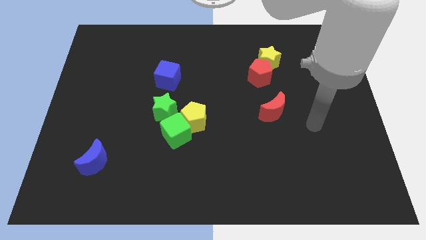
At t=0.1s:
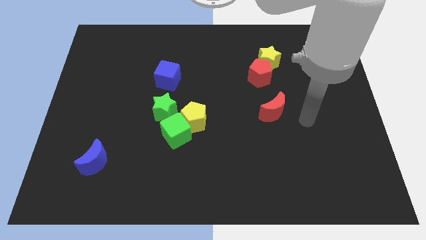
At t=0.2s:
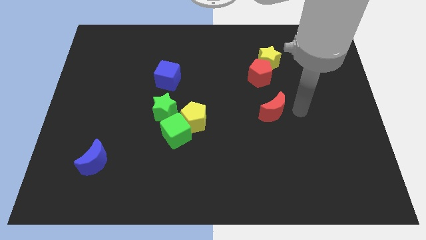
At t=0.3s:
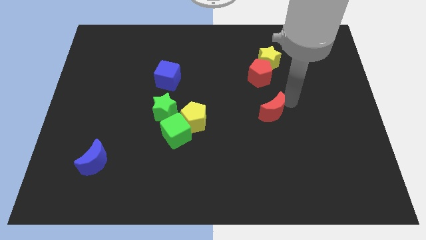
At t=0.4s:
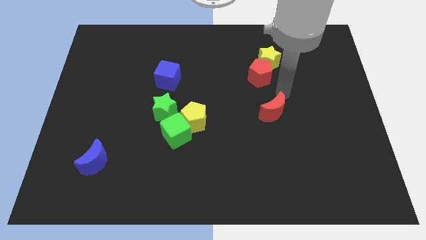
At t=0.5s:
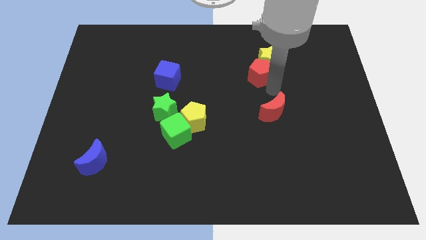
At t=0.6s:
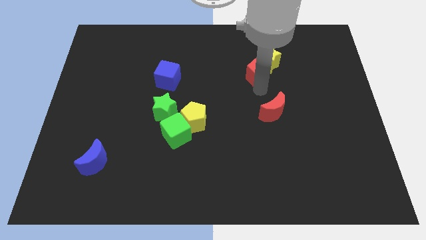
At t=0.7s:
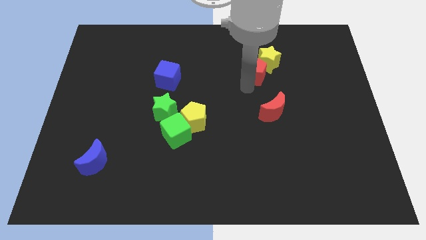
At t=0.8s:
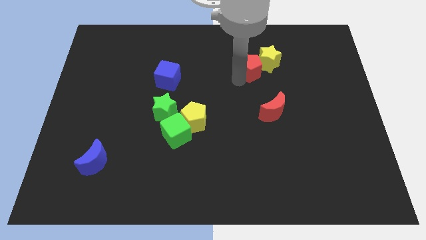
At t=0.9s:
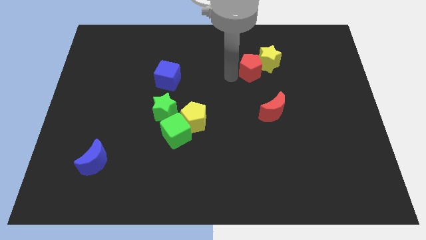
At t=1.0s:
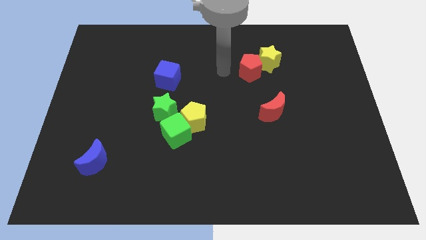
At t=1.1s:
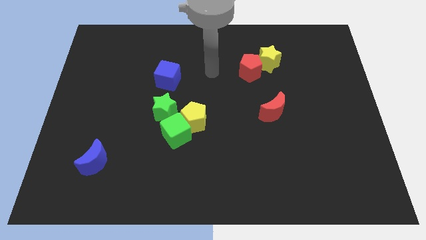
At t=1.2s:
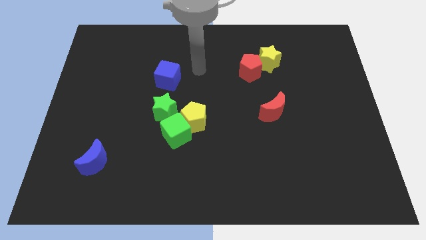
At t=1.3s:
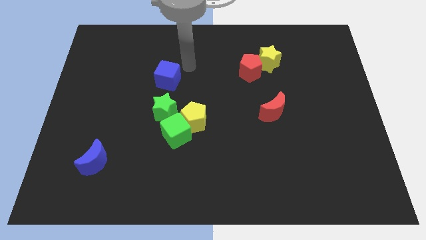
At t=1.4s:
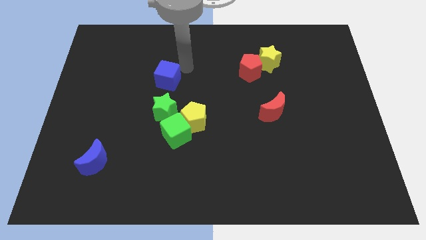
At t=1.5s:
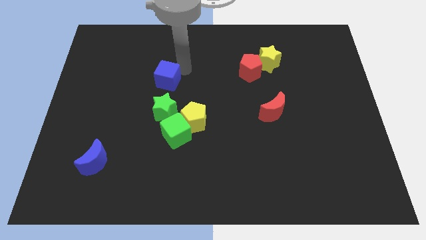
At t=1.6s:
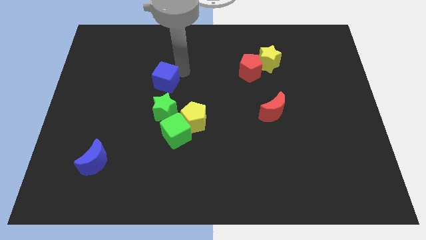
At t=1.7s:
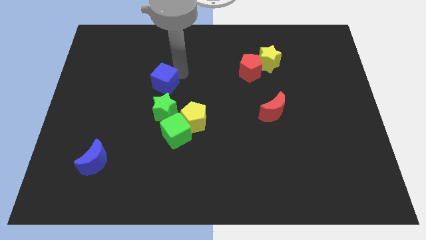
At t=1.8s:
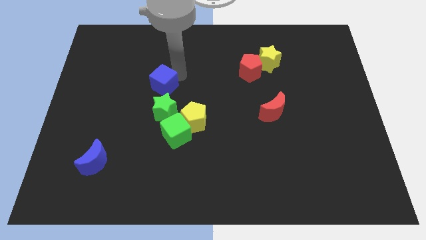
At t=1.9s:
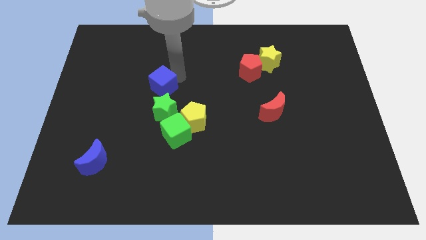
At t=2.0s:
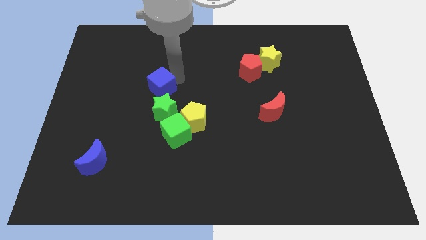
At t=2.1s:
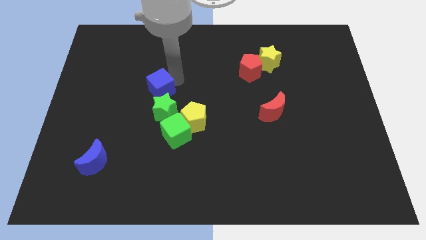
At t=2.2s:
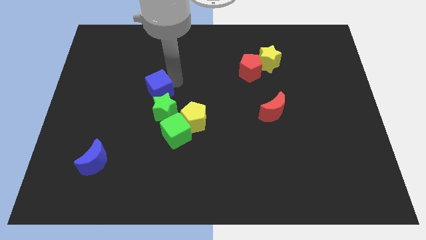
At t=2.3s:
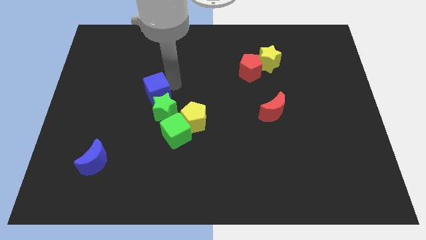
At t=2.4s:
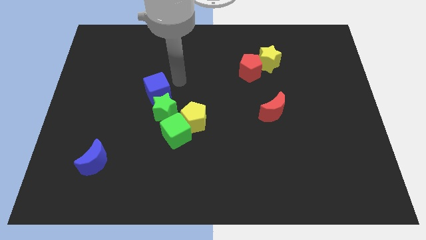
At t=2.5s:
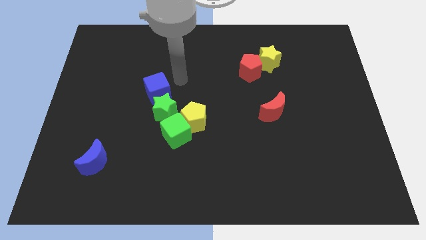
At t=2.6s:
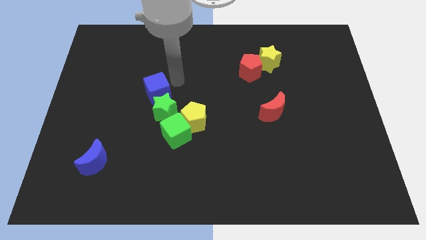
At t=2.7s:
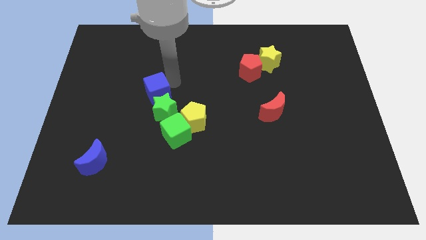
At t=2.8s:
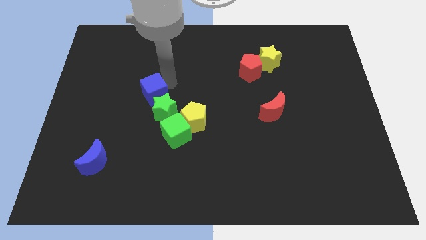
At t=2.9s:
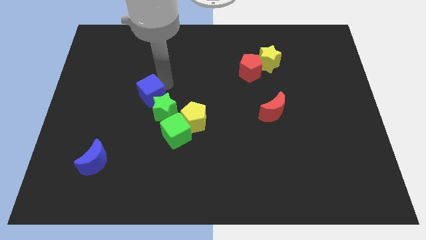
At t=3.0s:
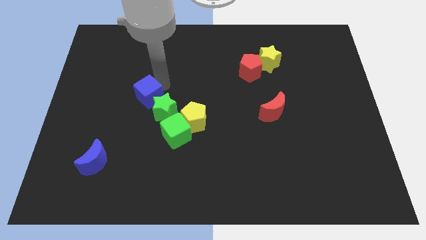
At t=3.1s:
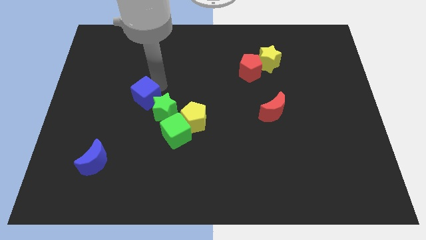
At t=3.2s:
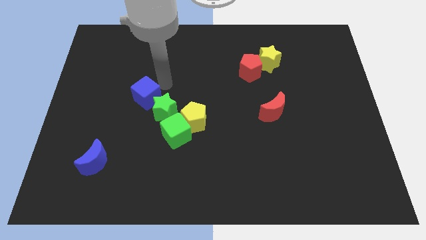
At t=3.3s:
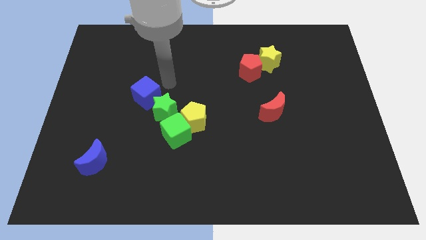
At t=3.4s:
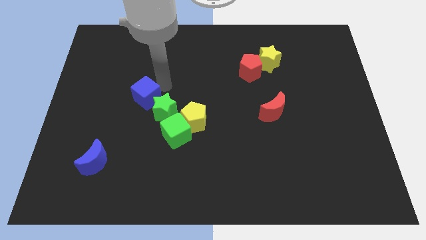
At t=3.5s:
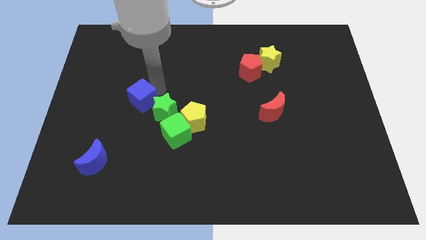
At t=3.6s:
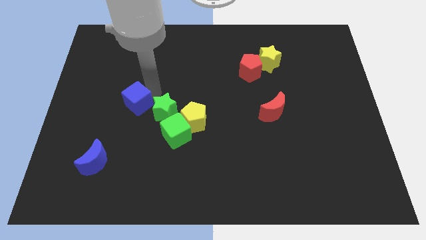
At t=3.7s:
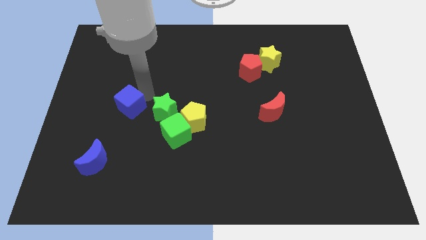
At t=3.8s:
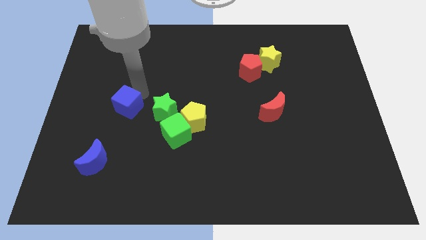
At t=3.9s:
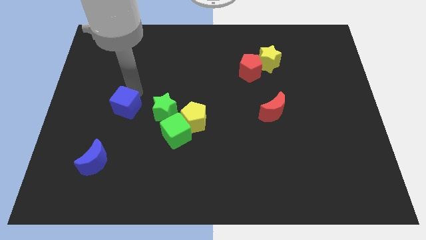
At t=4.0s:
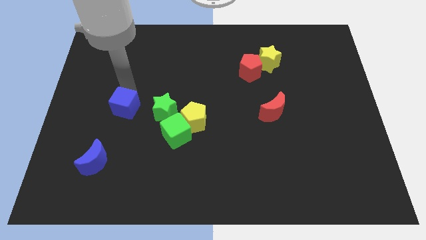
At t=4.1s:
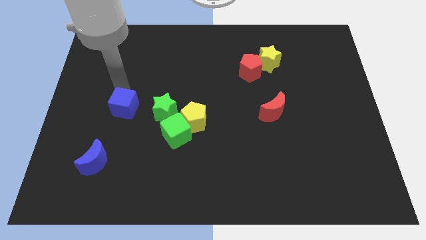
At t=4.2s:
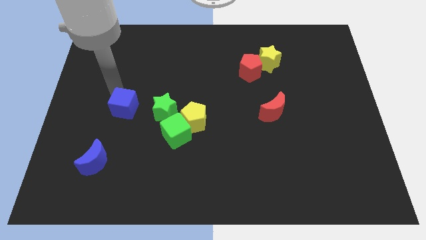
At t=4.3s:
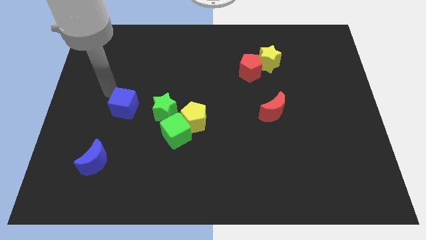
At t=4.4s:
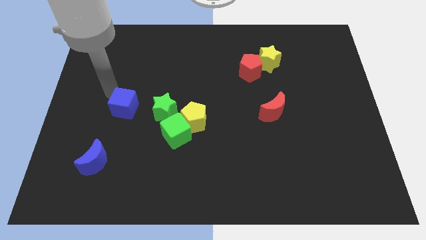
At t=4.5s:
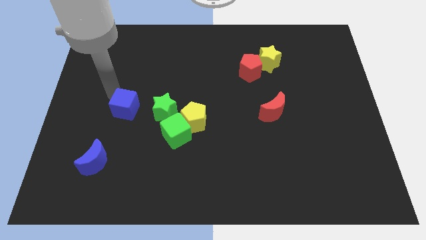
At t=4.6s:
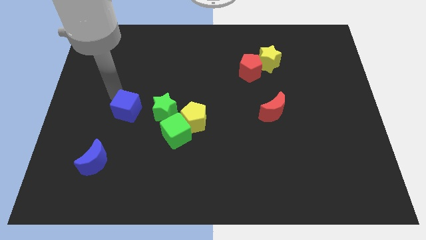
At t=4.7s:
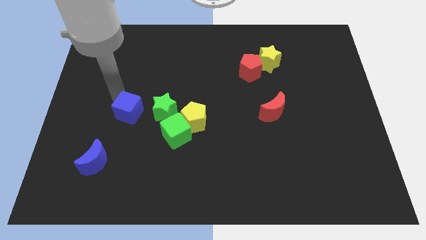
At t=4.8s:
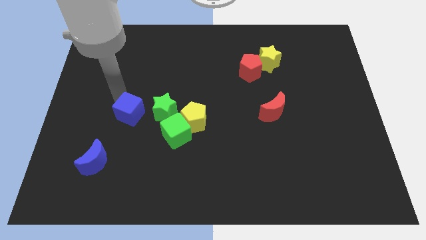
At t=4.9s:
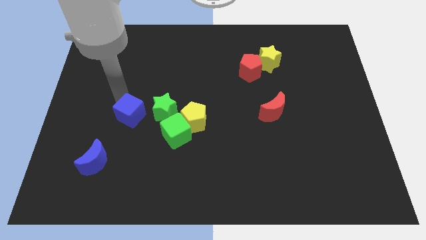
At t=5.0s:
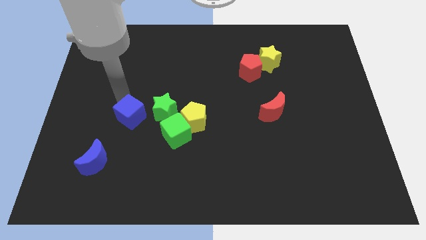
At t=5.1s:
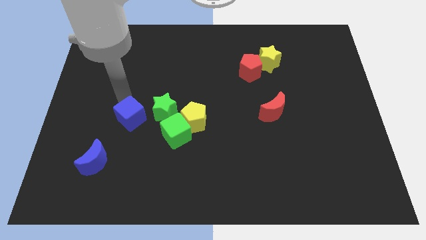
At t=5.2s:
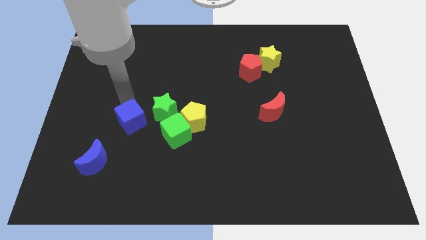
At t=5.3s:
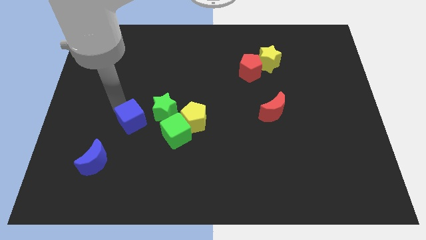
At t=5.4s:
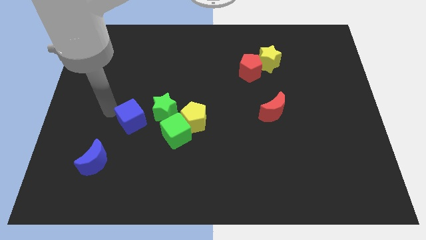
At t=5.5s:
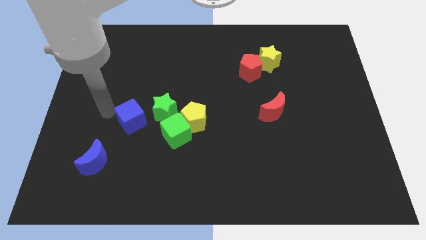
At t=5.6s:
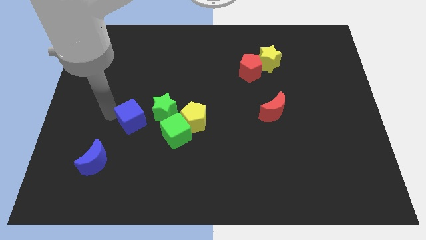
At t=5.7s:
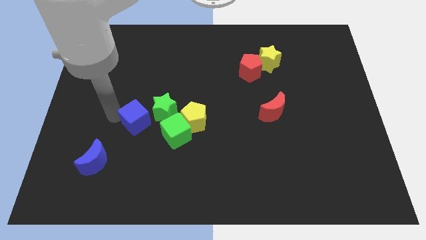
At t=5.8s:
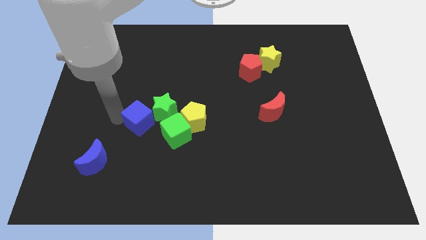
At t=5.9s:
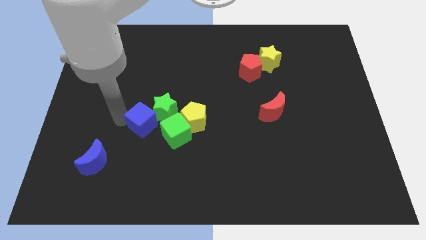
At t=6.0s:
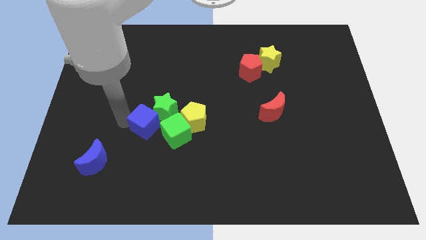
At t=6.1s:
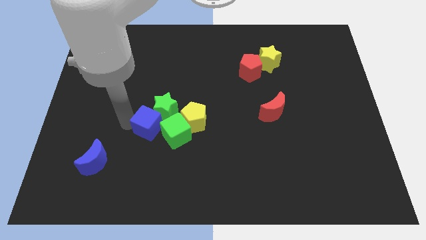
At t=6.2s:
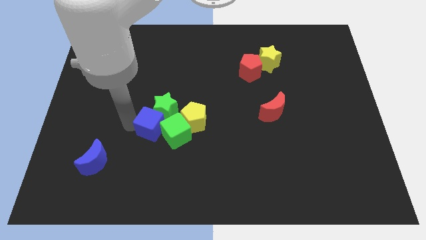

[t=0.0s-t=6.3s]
put the blue cube next to the green cube

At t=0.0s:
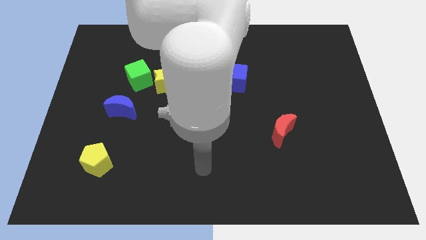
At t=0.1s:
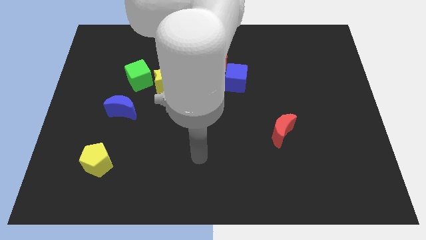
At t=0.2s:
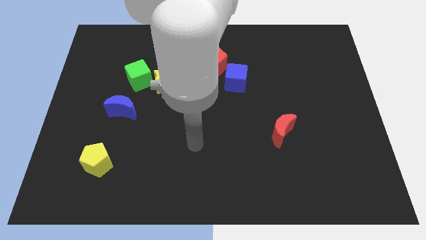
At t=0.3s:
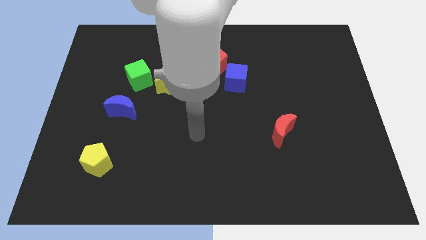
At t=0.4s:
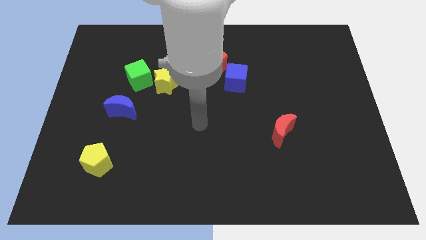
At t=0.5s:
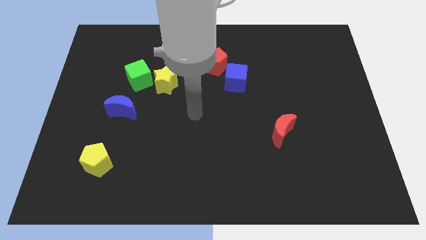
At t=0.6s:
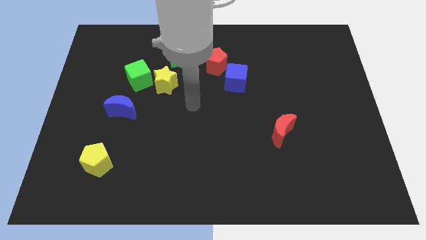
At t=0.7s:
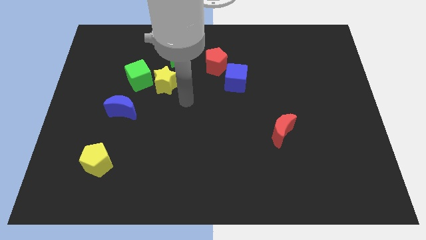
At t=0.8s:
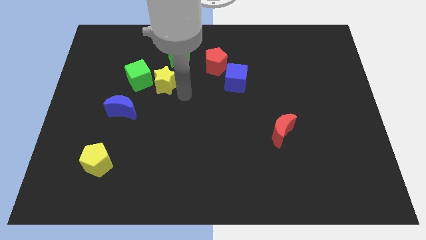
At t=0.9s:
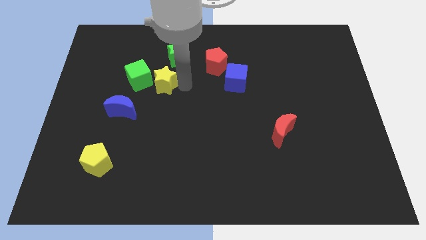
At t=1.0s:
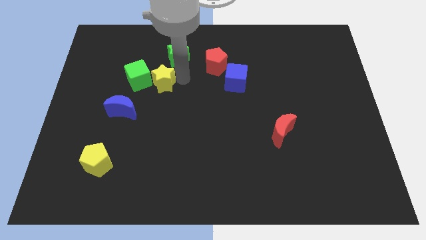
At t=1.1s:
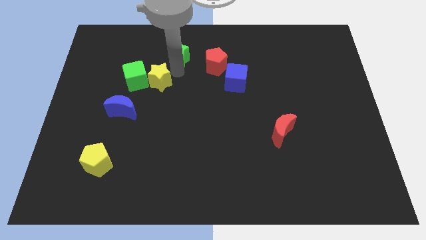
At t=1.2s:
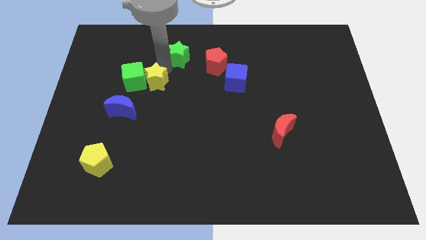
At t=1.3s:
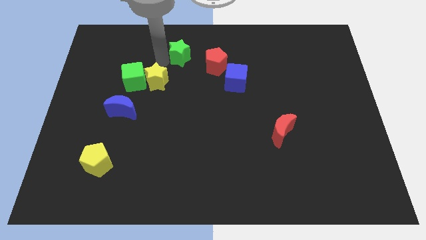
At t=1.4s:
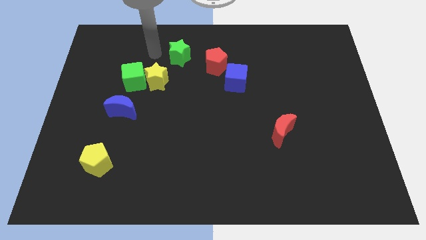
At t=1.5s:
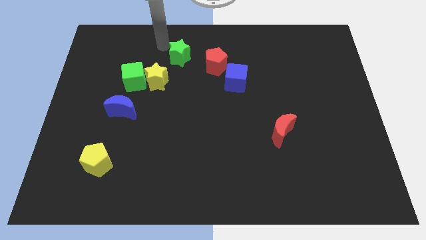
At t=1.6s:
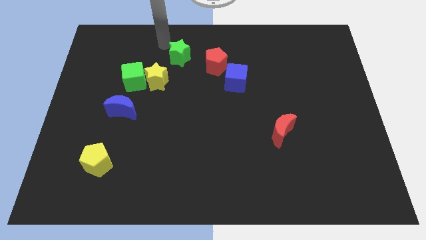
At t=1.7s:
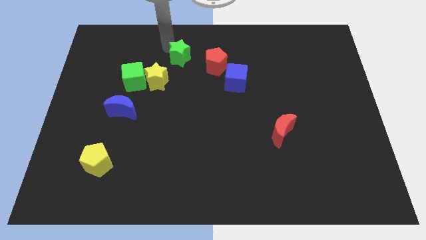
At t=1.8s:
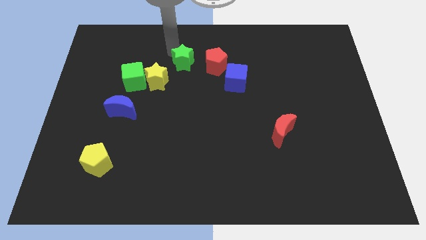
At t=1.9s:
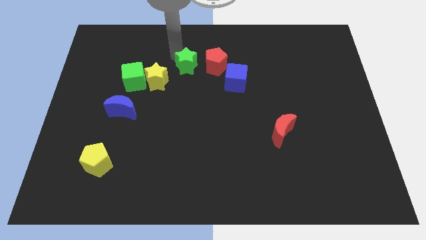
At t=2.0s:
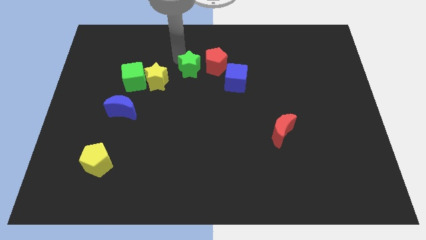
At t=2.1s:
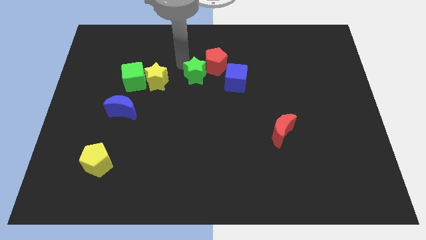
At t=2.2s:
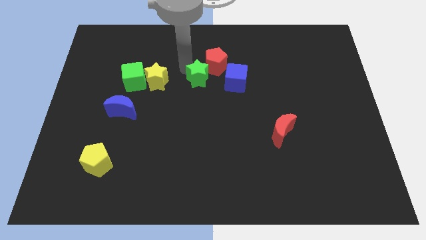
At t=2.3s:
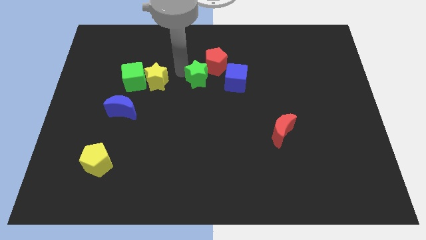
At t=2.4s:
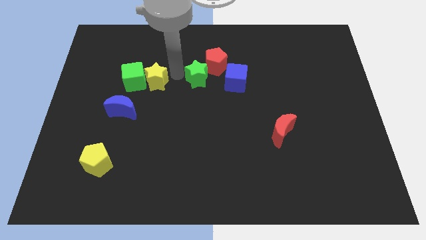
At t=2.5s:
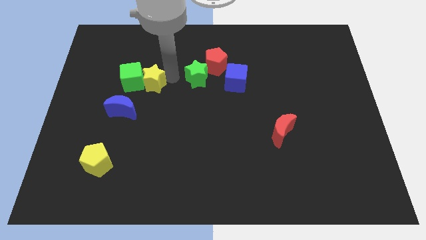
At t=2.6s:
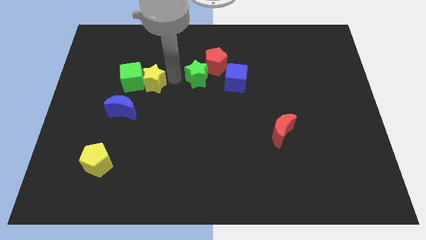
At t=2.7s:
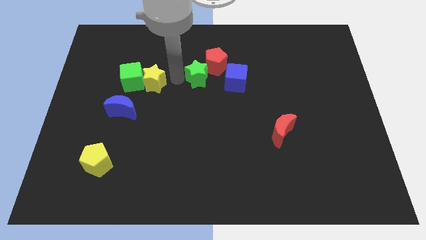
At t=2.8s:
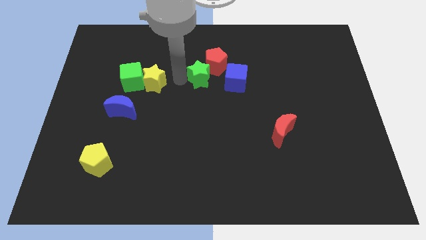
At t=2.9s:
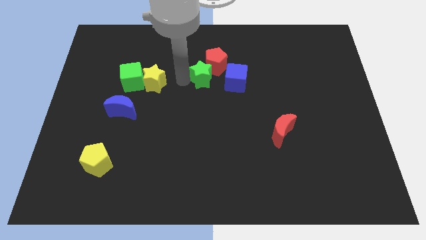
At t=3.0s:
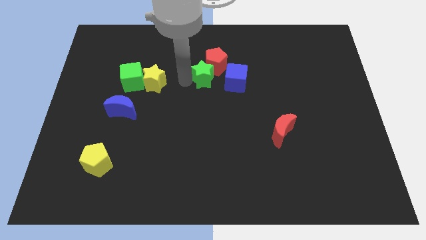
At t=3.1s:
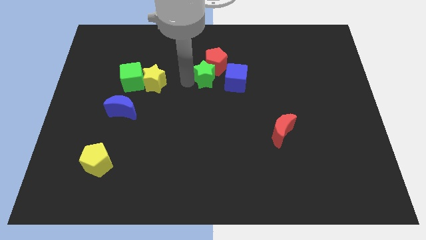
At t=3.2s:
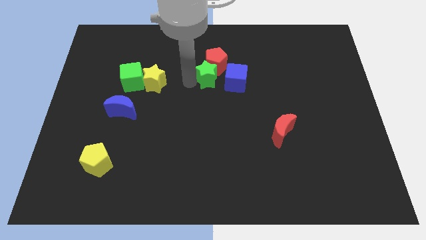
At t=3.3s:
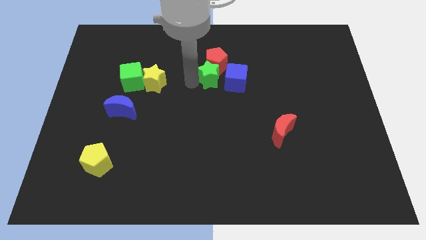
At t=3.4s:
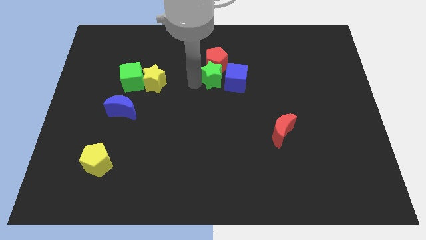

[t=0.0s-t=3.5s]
slide the green star towards the blue cube
